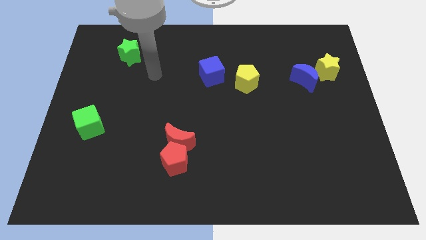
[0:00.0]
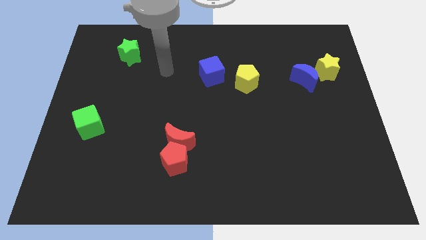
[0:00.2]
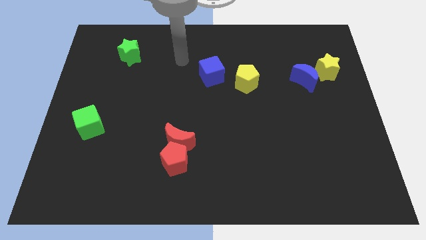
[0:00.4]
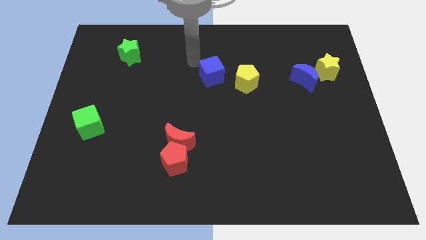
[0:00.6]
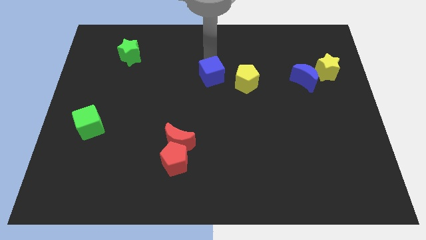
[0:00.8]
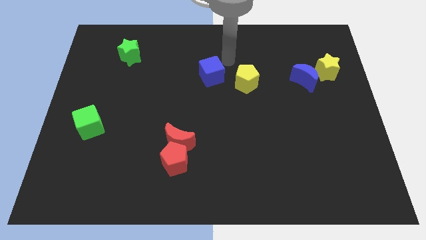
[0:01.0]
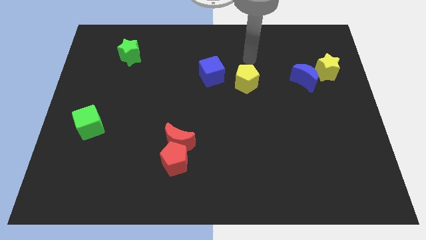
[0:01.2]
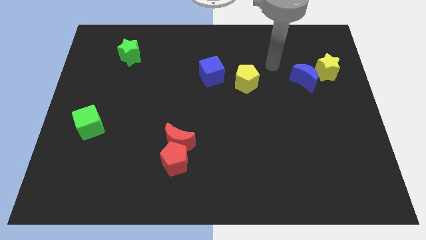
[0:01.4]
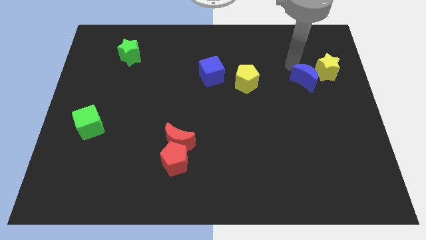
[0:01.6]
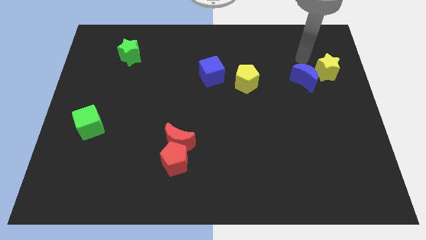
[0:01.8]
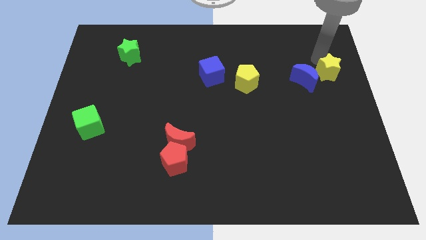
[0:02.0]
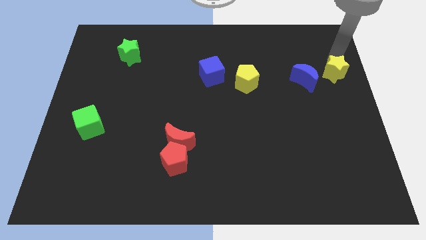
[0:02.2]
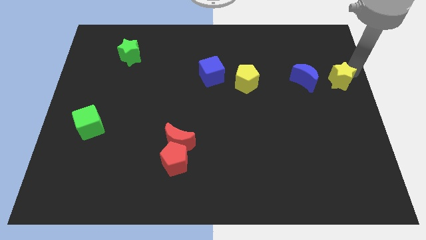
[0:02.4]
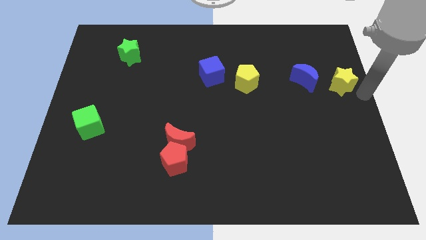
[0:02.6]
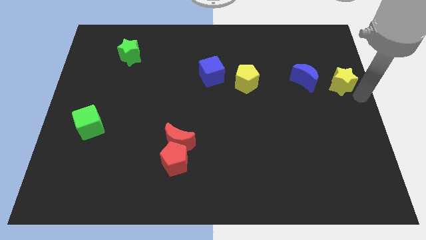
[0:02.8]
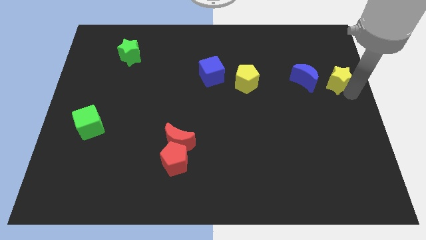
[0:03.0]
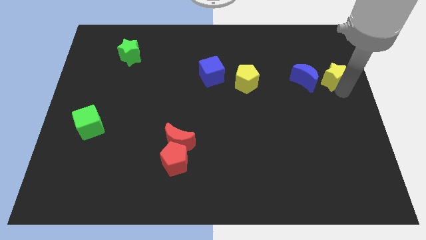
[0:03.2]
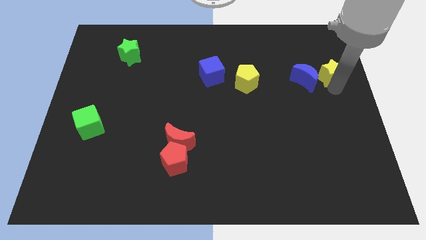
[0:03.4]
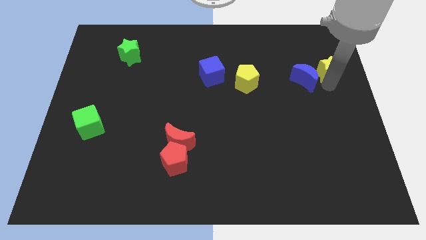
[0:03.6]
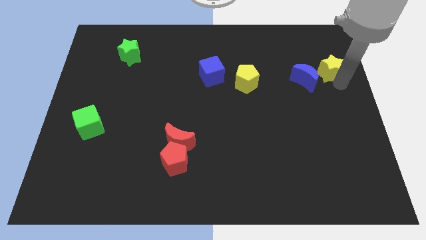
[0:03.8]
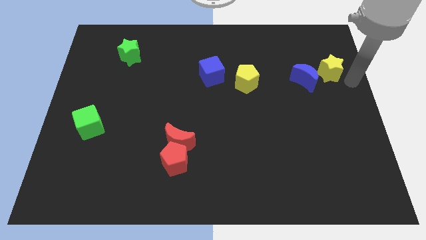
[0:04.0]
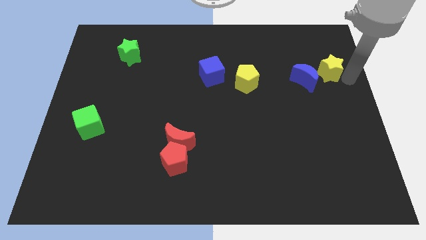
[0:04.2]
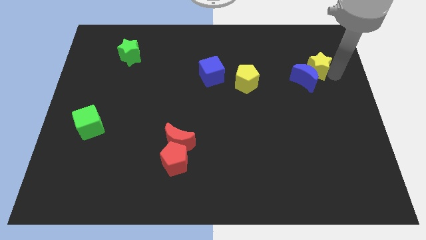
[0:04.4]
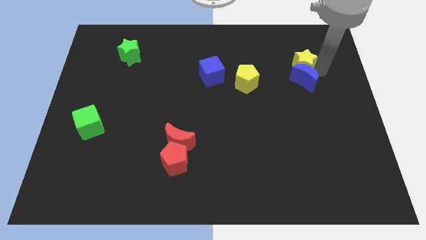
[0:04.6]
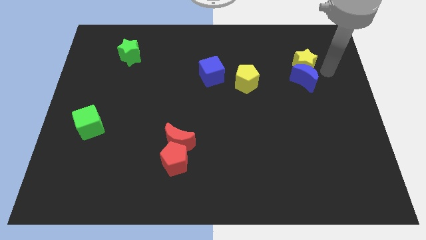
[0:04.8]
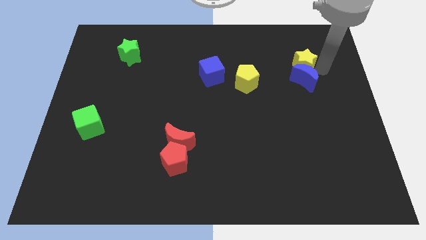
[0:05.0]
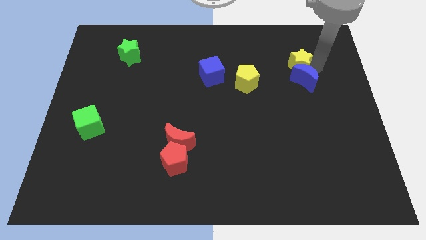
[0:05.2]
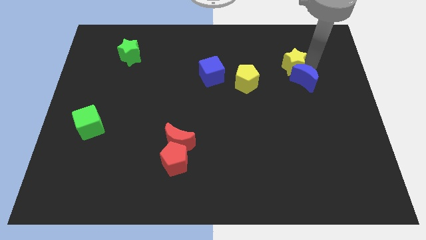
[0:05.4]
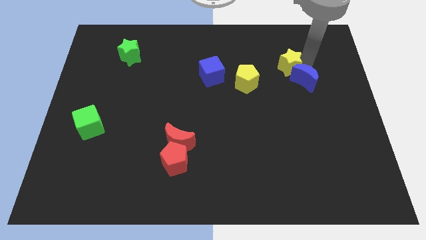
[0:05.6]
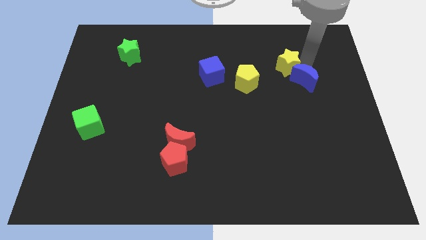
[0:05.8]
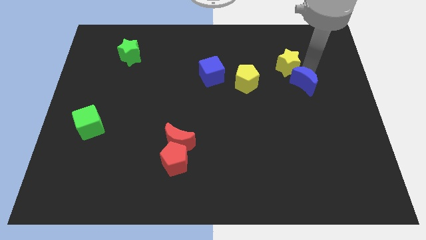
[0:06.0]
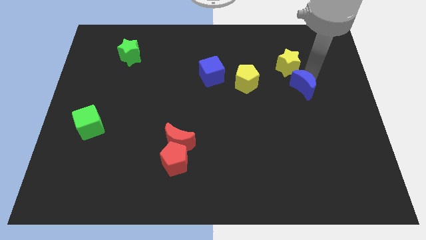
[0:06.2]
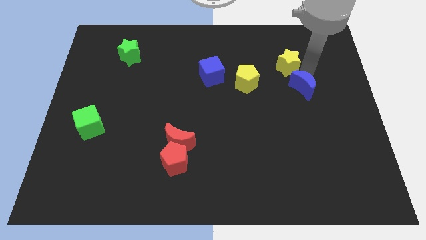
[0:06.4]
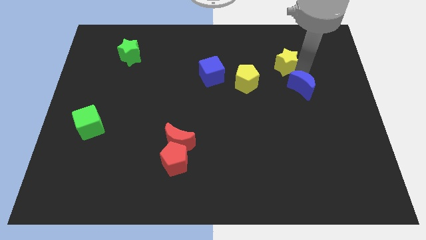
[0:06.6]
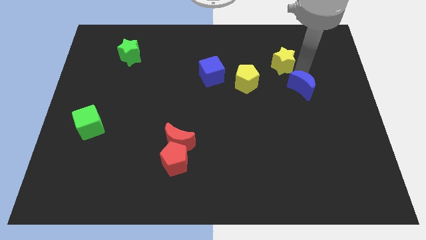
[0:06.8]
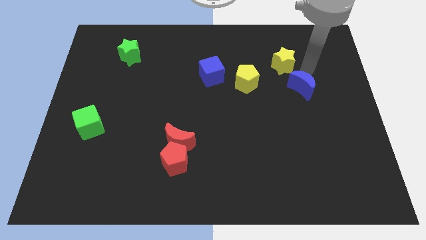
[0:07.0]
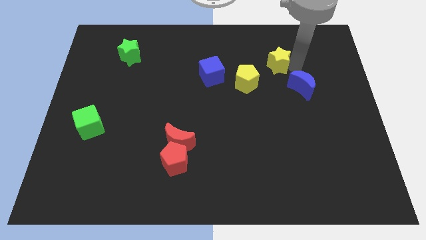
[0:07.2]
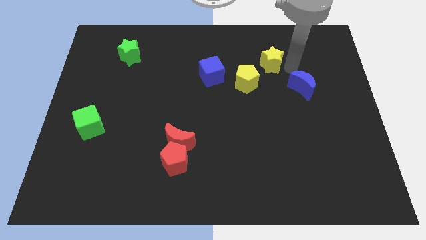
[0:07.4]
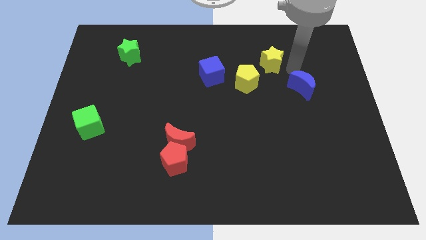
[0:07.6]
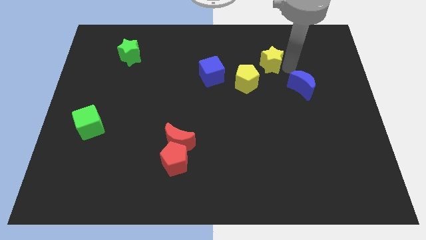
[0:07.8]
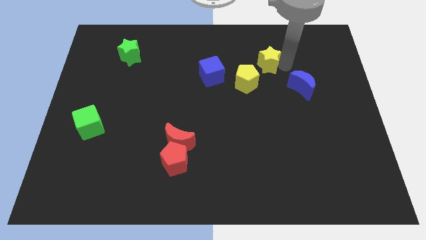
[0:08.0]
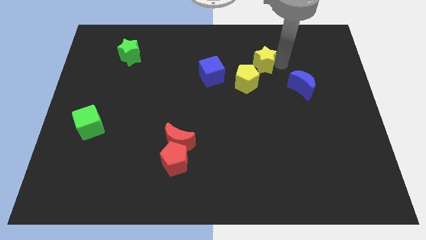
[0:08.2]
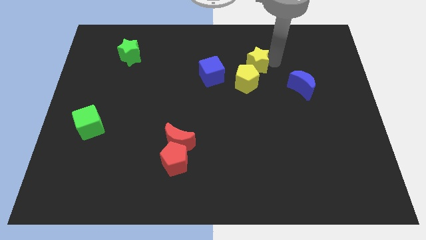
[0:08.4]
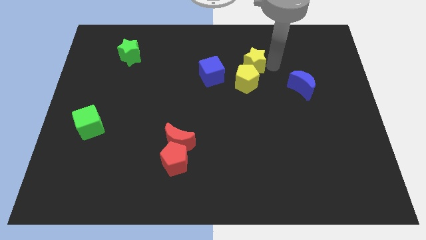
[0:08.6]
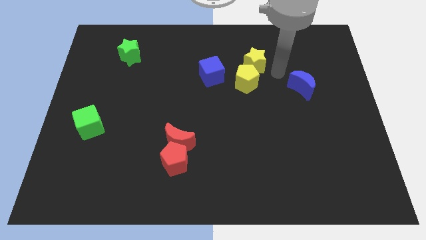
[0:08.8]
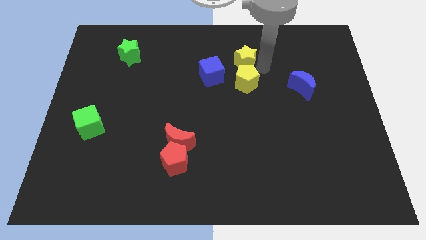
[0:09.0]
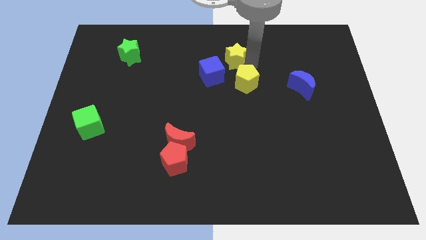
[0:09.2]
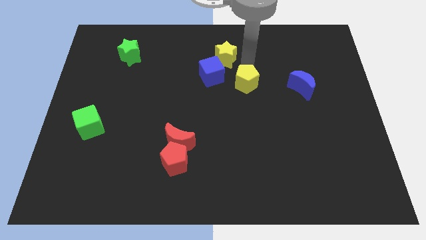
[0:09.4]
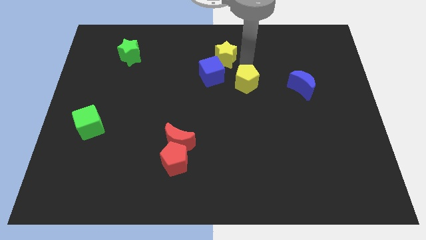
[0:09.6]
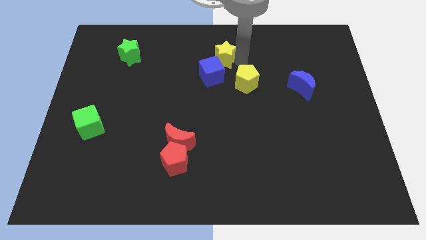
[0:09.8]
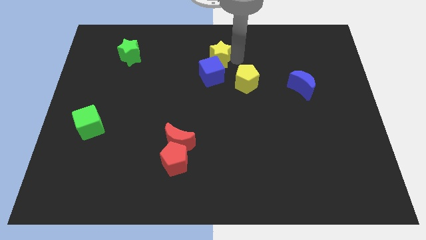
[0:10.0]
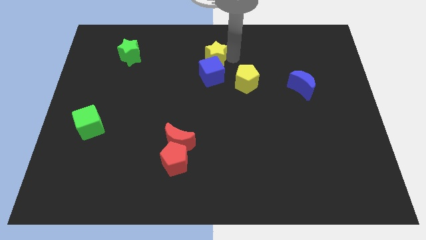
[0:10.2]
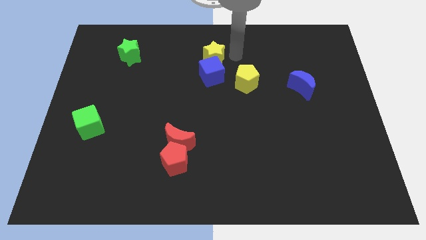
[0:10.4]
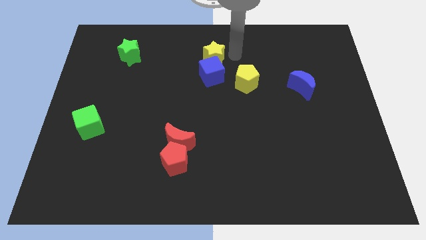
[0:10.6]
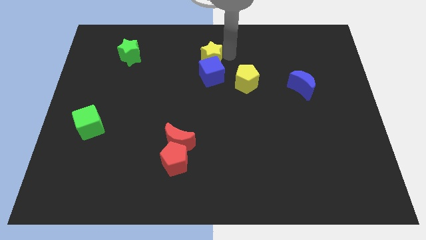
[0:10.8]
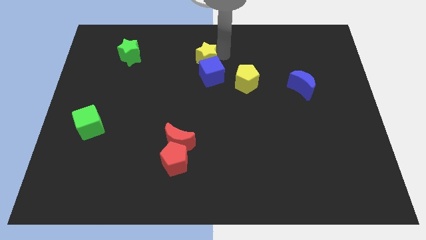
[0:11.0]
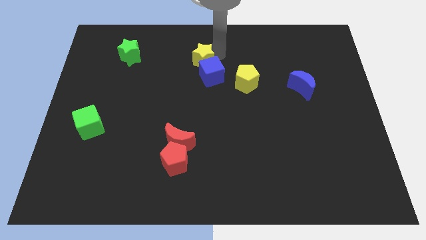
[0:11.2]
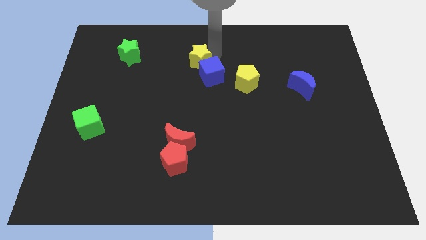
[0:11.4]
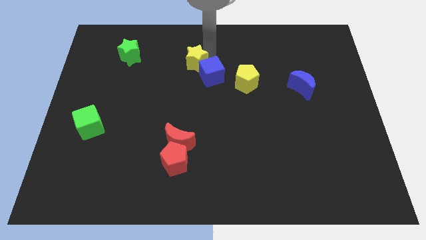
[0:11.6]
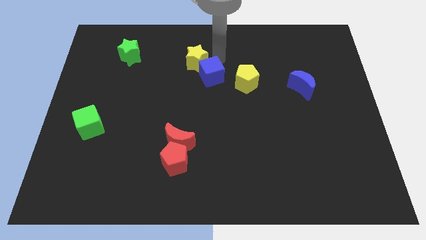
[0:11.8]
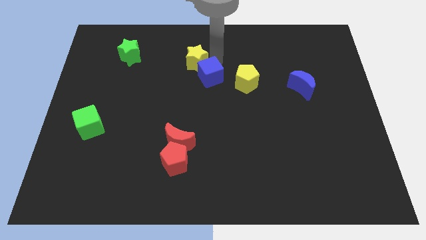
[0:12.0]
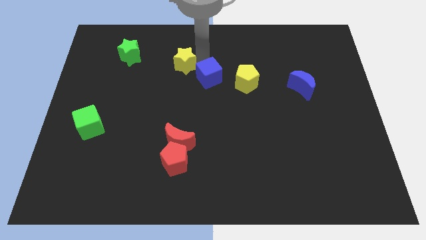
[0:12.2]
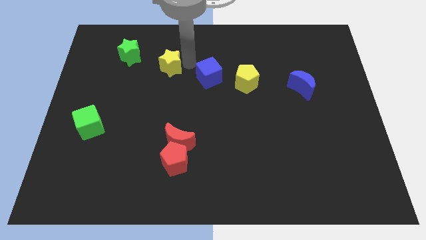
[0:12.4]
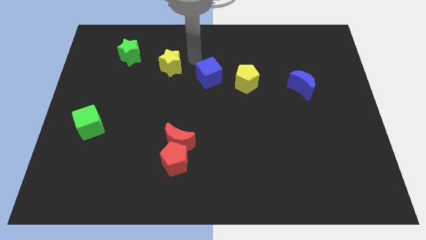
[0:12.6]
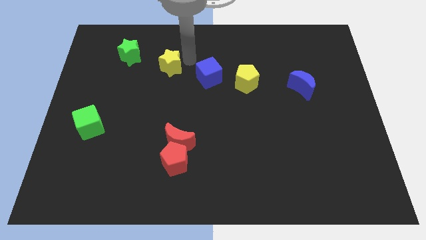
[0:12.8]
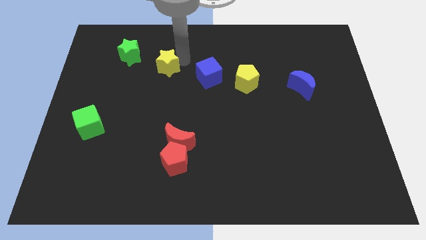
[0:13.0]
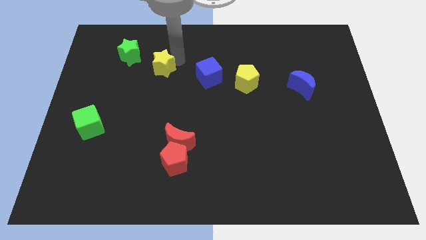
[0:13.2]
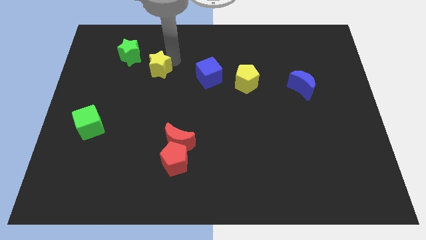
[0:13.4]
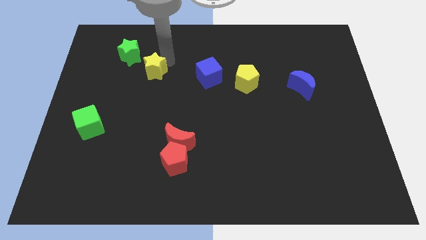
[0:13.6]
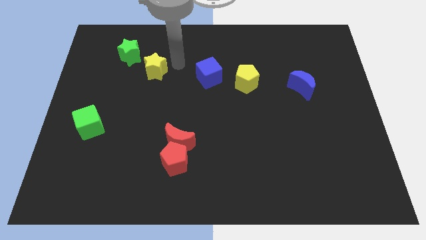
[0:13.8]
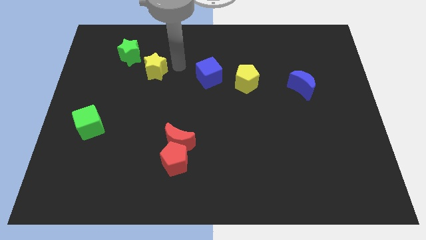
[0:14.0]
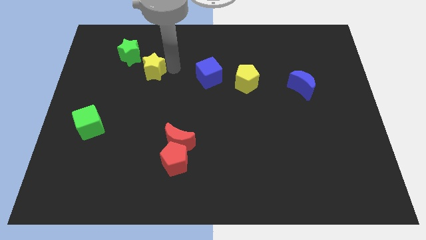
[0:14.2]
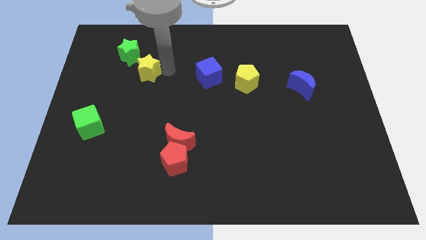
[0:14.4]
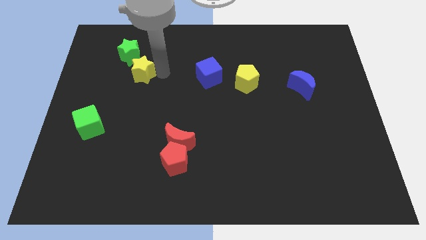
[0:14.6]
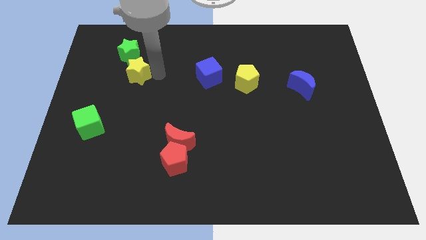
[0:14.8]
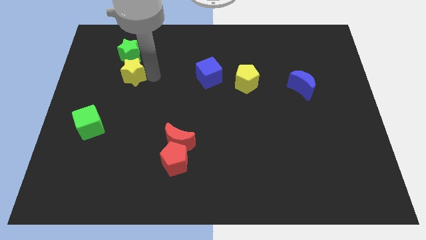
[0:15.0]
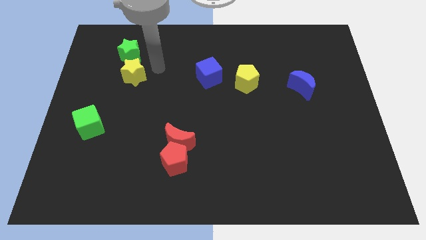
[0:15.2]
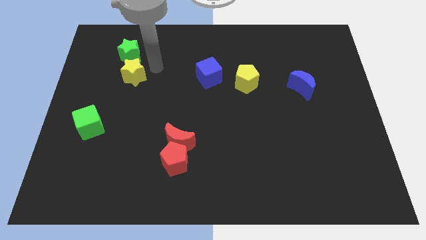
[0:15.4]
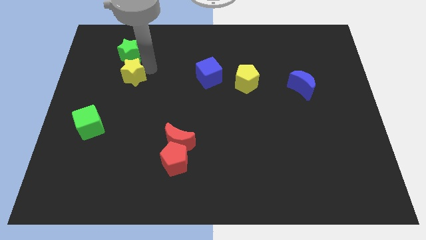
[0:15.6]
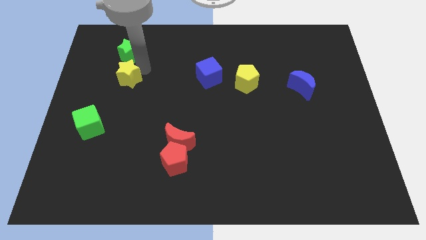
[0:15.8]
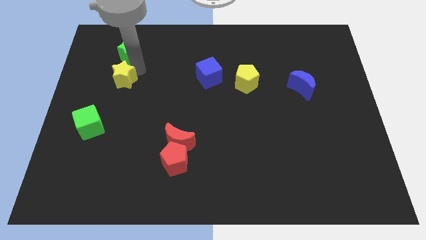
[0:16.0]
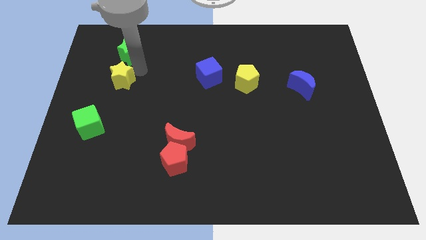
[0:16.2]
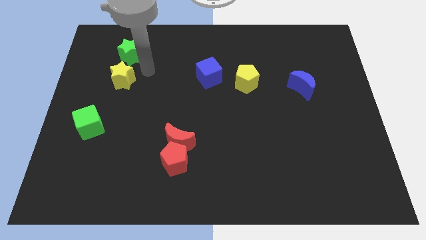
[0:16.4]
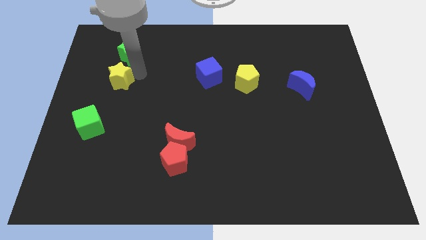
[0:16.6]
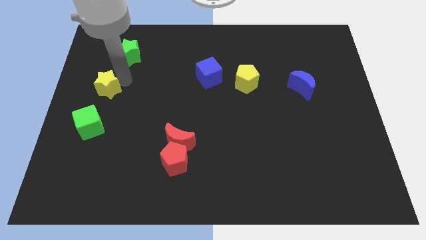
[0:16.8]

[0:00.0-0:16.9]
move the yellow star to the center left
